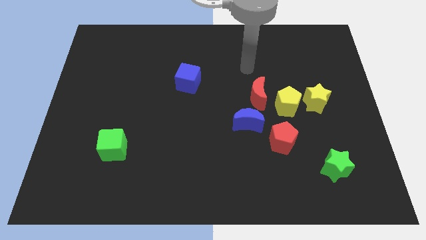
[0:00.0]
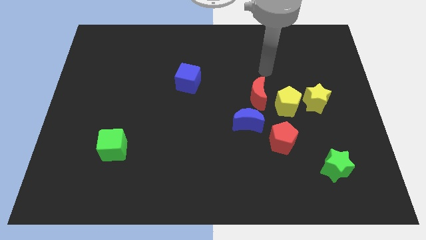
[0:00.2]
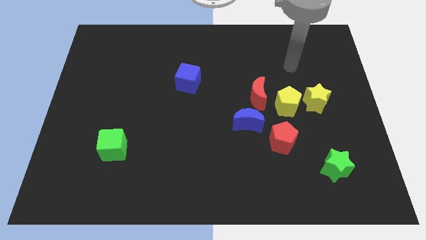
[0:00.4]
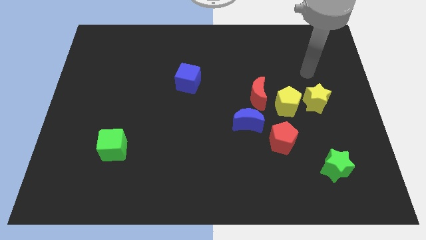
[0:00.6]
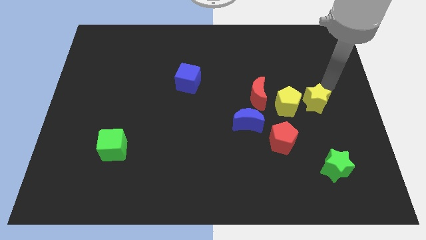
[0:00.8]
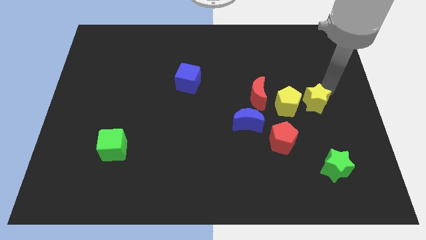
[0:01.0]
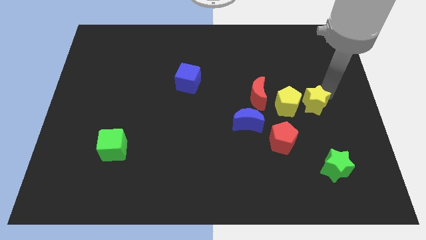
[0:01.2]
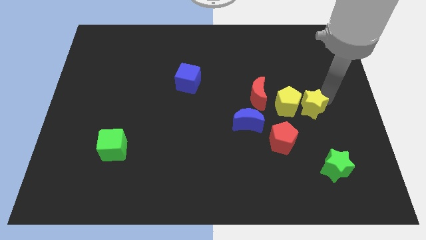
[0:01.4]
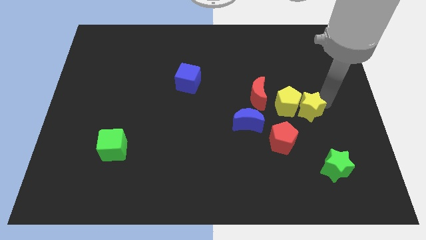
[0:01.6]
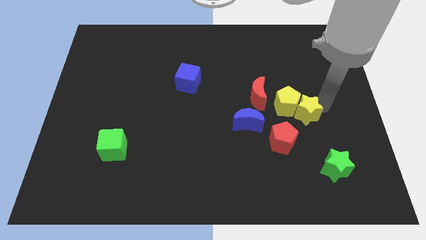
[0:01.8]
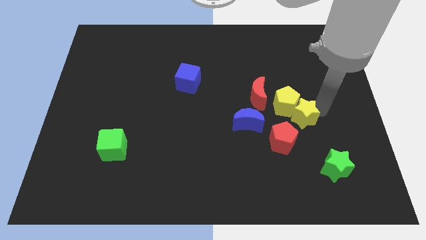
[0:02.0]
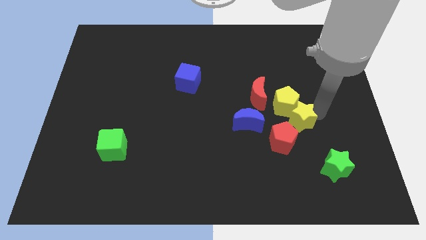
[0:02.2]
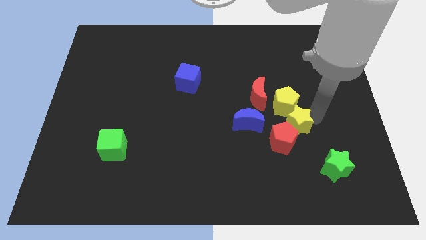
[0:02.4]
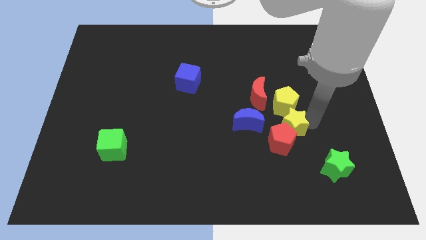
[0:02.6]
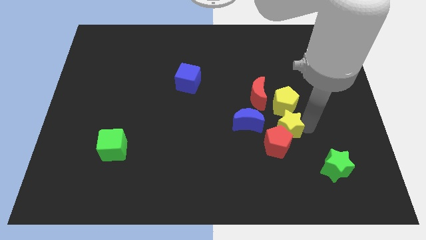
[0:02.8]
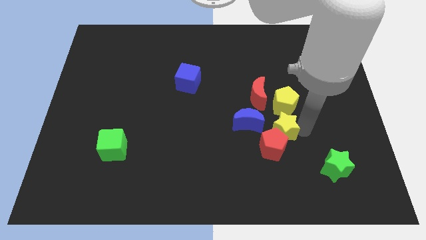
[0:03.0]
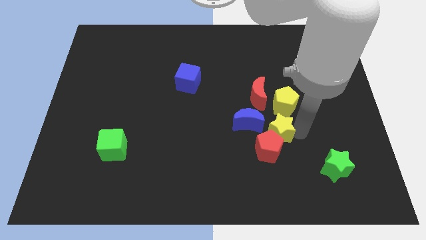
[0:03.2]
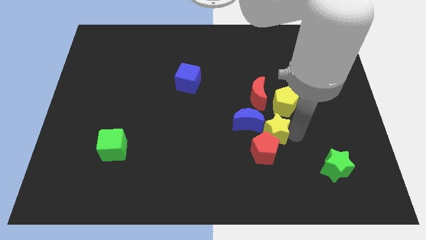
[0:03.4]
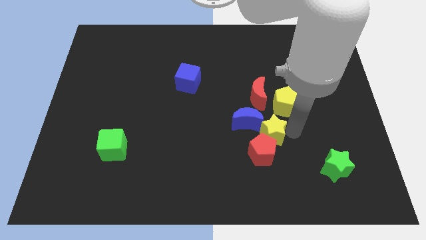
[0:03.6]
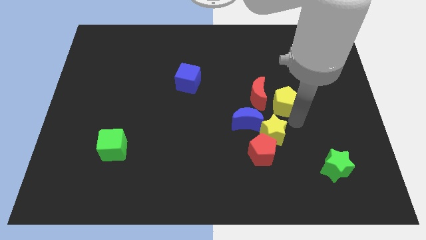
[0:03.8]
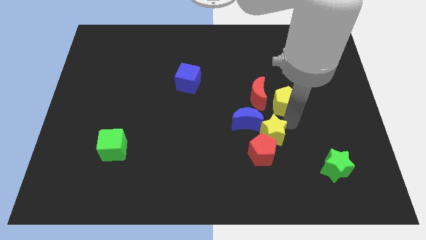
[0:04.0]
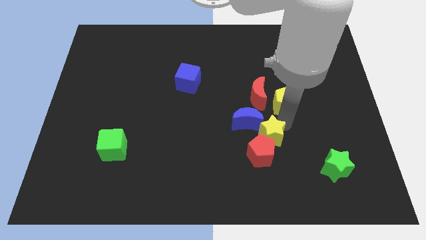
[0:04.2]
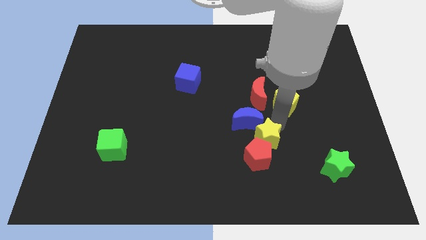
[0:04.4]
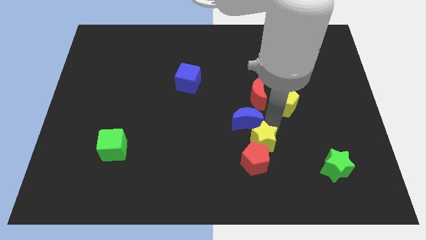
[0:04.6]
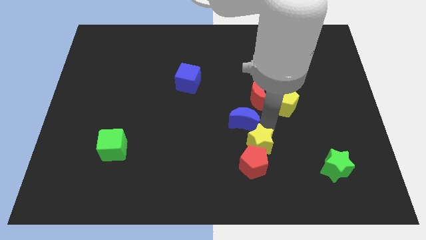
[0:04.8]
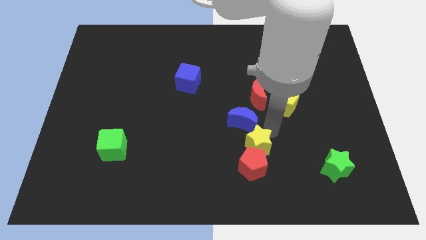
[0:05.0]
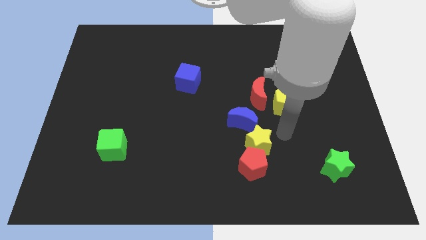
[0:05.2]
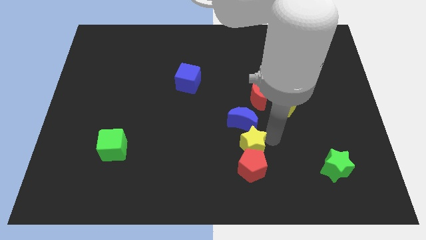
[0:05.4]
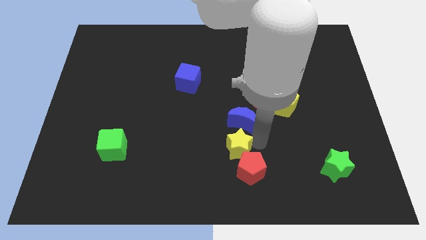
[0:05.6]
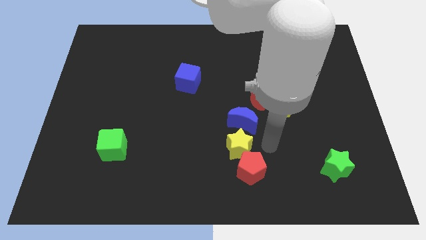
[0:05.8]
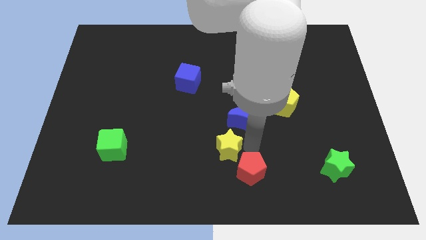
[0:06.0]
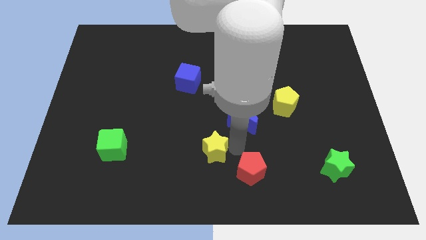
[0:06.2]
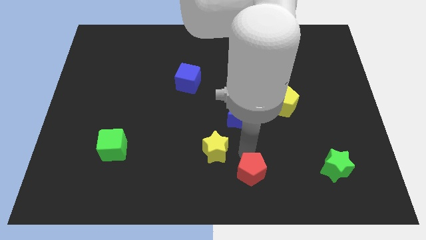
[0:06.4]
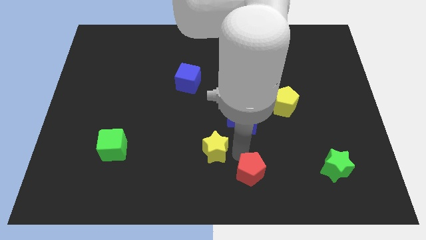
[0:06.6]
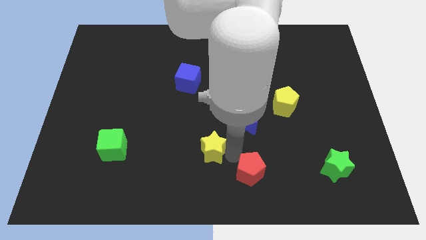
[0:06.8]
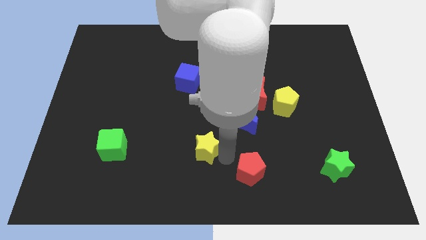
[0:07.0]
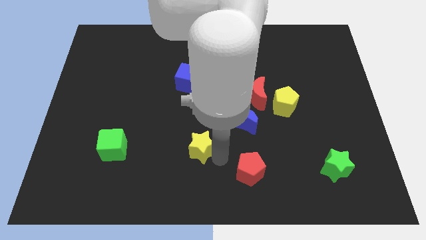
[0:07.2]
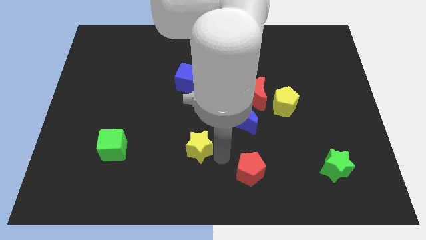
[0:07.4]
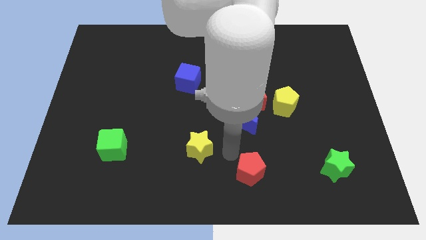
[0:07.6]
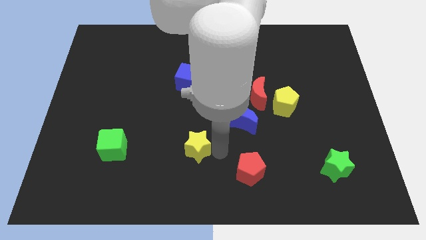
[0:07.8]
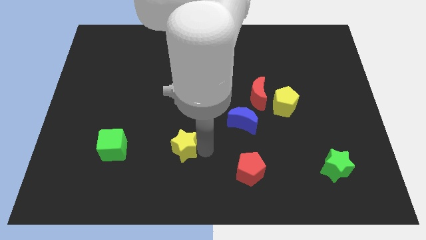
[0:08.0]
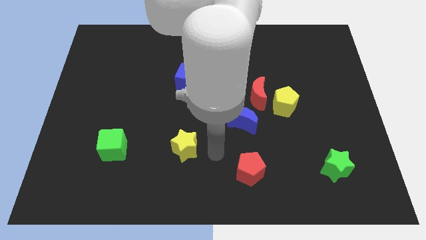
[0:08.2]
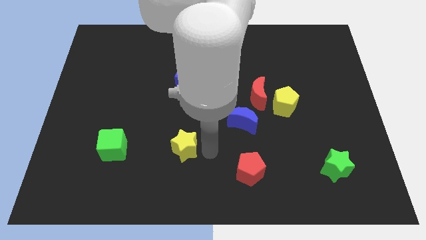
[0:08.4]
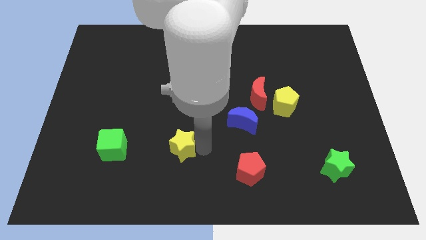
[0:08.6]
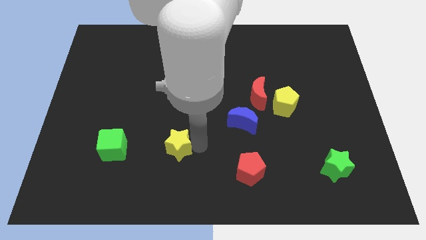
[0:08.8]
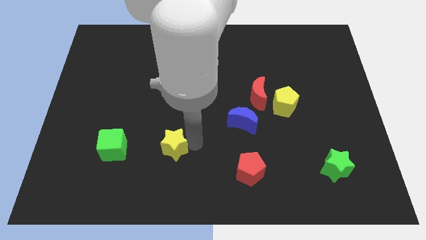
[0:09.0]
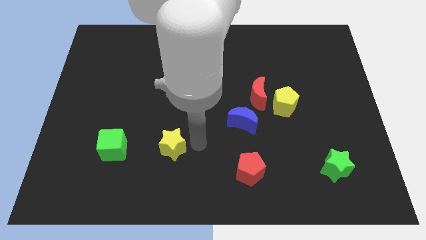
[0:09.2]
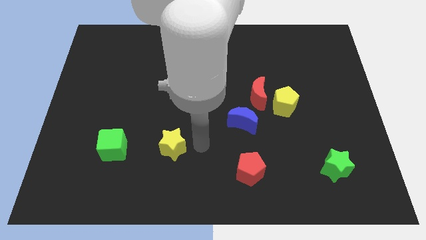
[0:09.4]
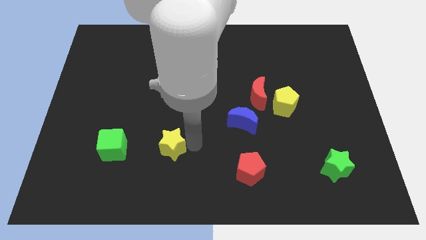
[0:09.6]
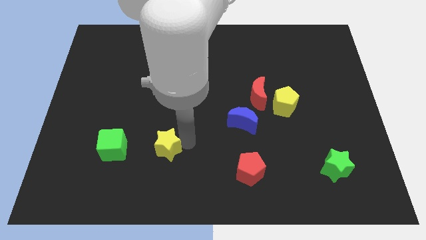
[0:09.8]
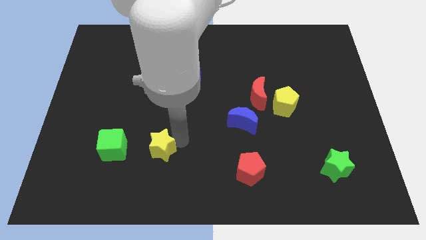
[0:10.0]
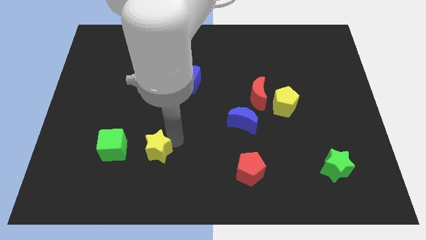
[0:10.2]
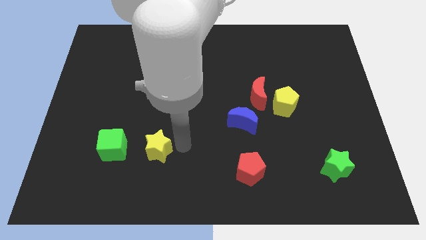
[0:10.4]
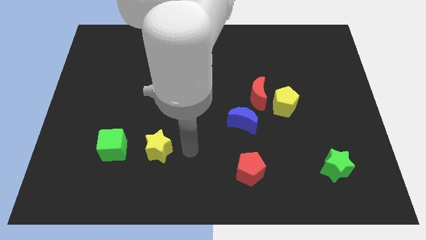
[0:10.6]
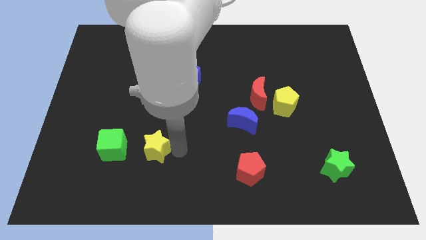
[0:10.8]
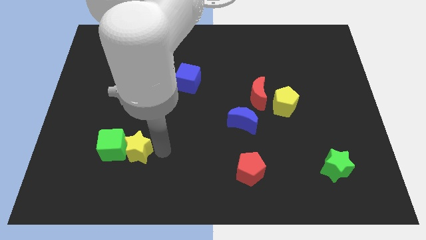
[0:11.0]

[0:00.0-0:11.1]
slide the yellow star towards the green cube

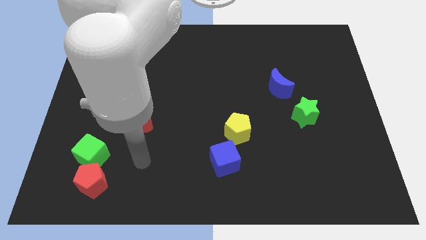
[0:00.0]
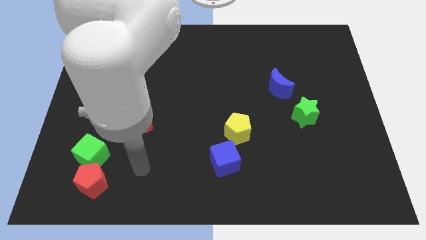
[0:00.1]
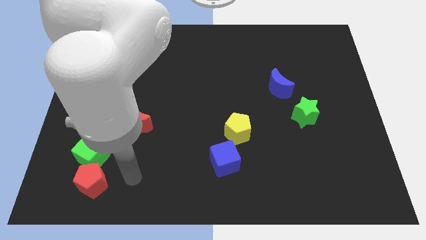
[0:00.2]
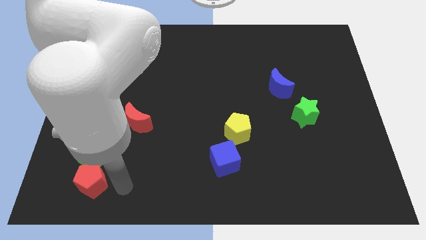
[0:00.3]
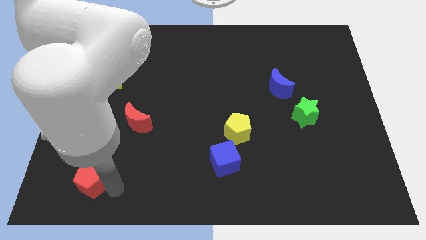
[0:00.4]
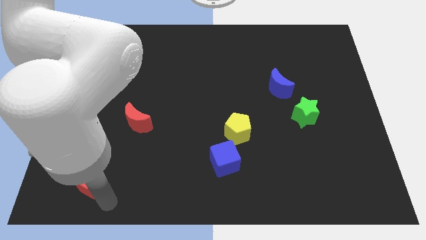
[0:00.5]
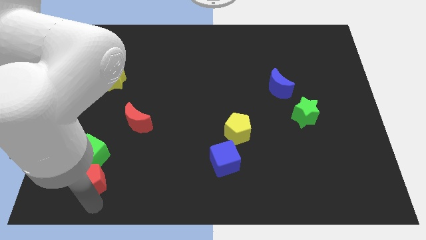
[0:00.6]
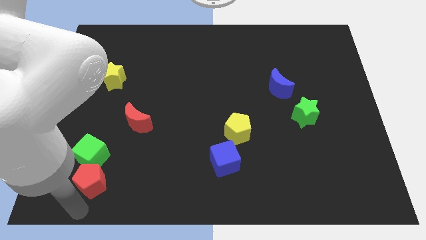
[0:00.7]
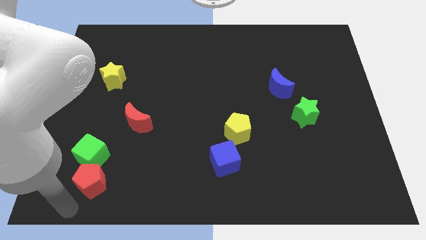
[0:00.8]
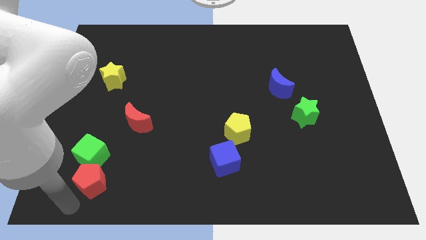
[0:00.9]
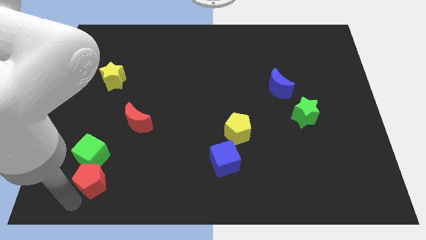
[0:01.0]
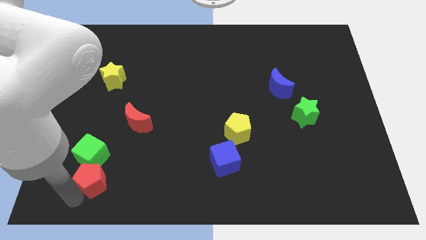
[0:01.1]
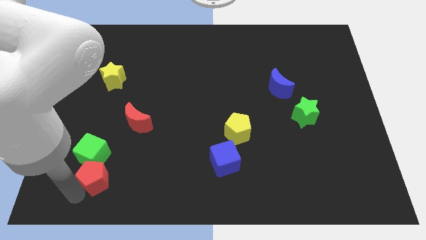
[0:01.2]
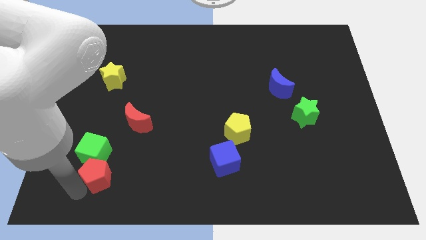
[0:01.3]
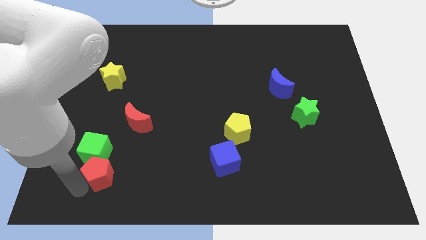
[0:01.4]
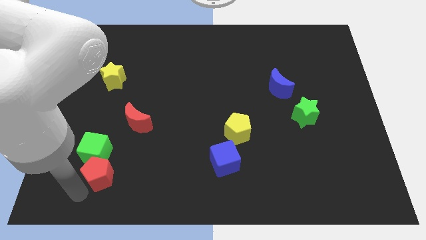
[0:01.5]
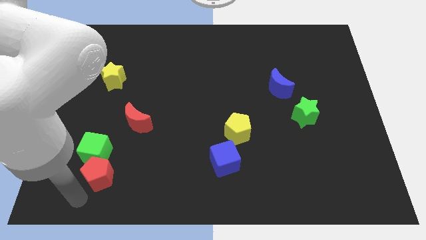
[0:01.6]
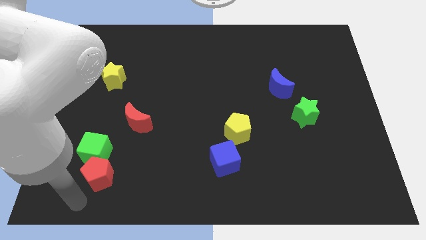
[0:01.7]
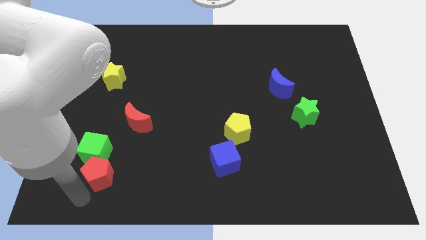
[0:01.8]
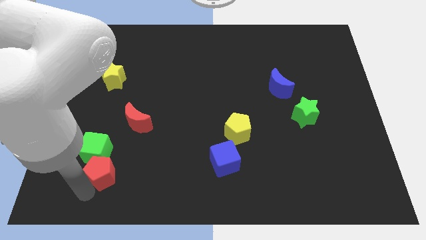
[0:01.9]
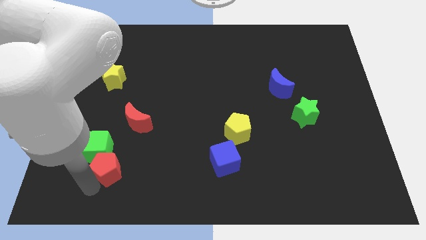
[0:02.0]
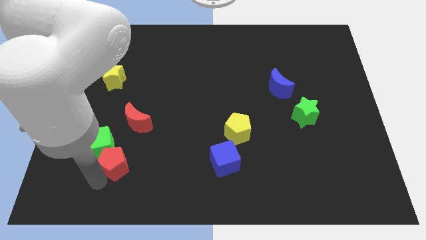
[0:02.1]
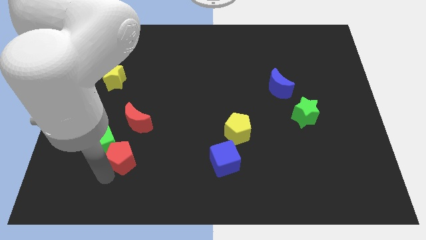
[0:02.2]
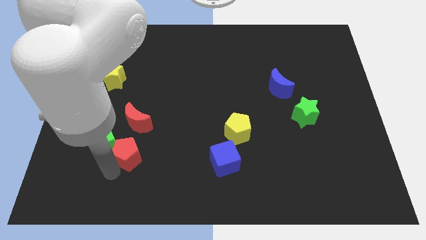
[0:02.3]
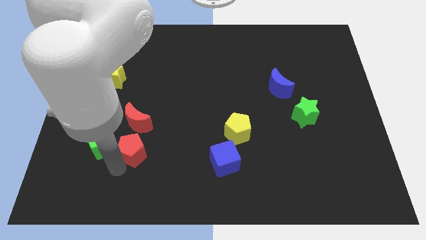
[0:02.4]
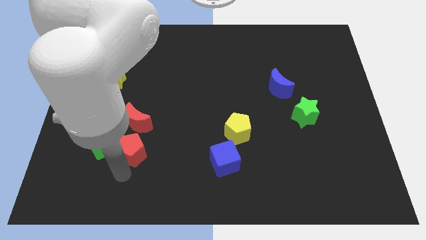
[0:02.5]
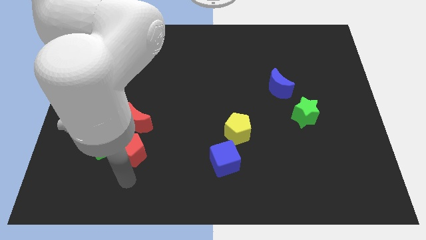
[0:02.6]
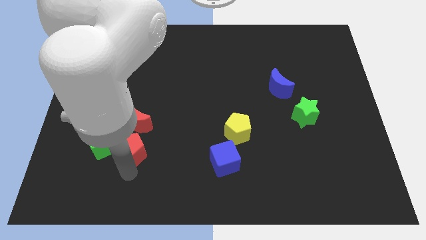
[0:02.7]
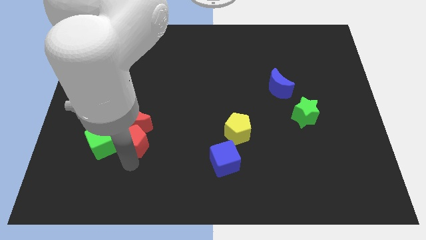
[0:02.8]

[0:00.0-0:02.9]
push the red pentagon to the red moon
